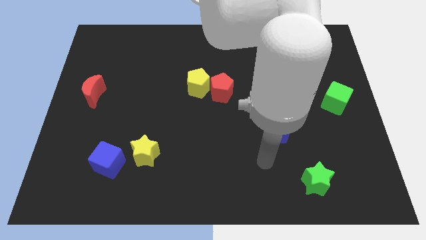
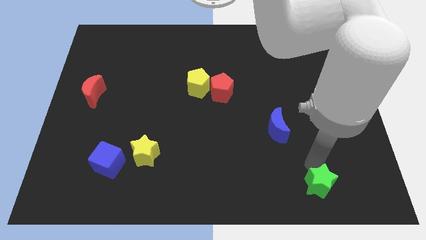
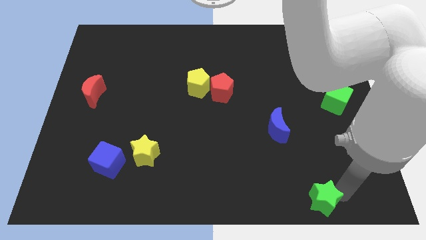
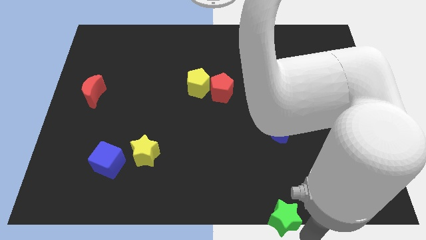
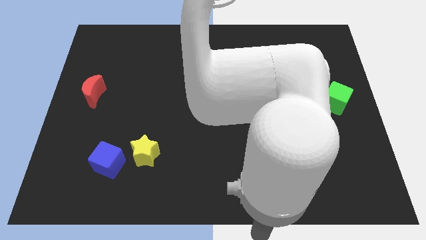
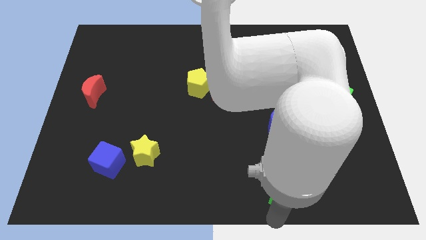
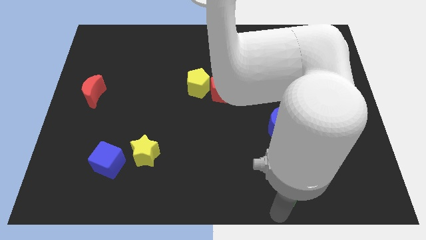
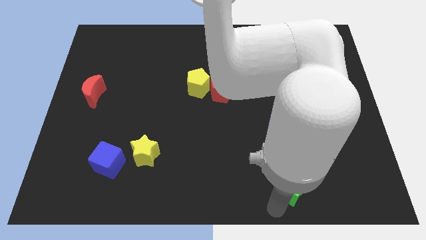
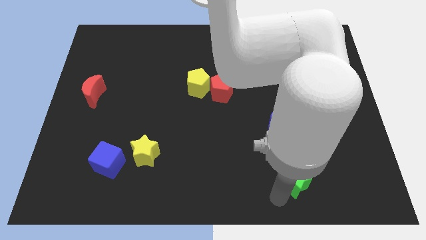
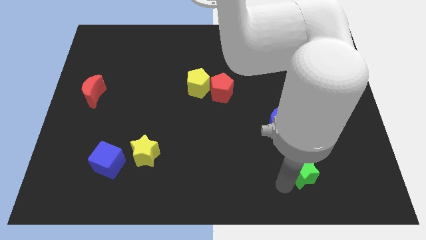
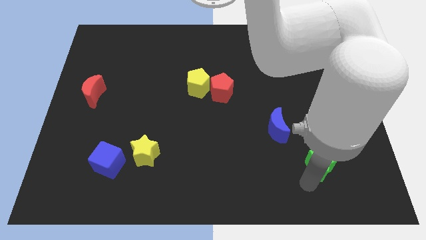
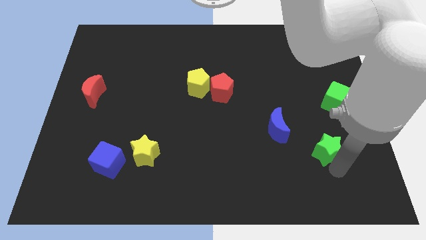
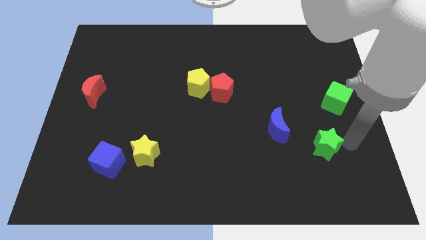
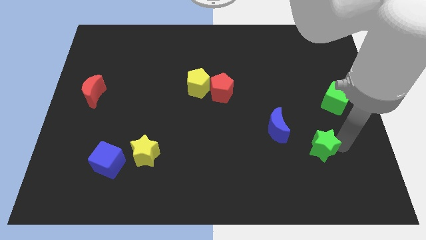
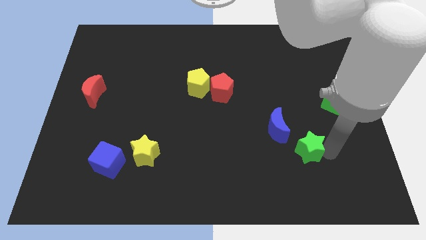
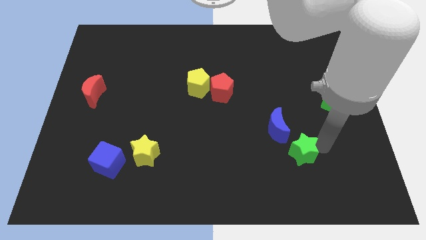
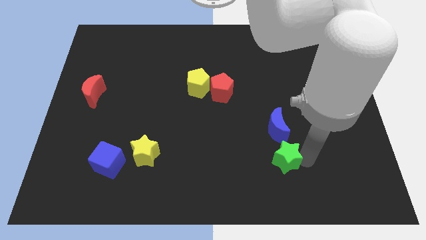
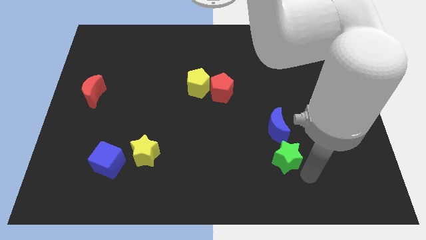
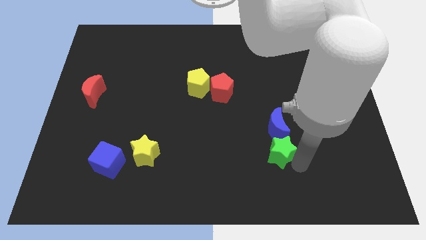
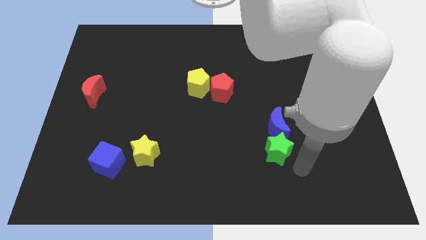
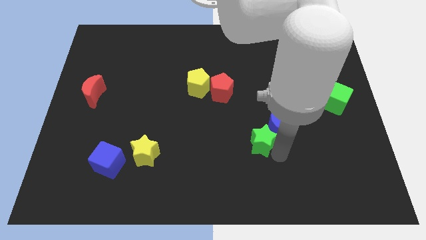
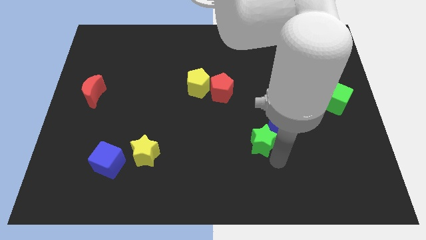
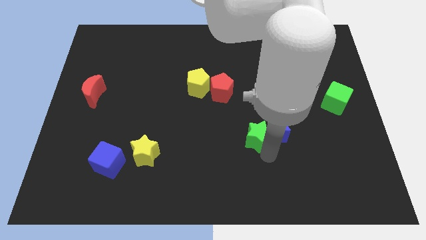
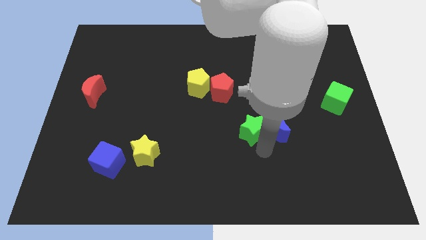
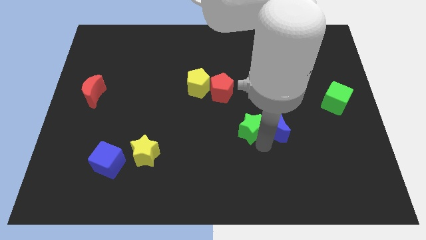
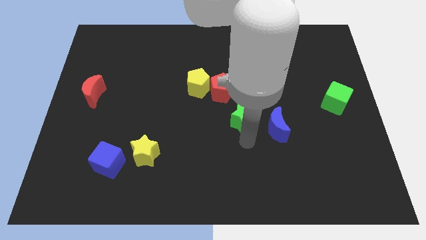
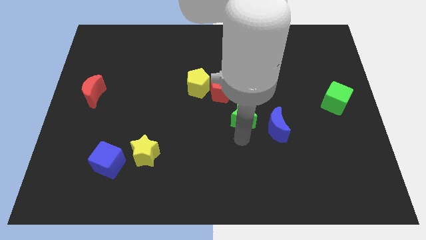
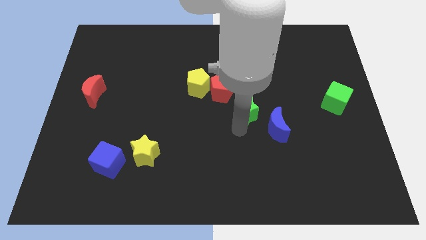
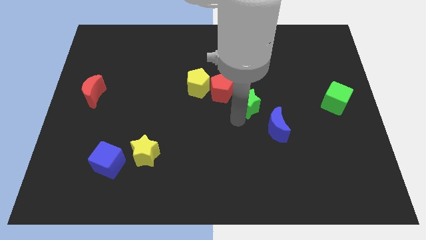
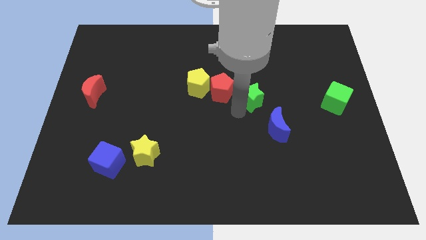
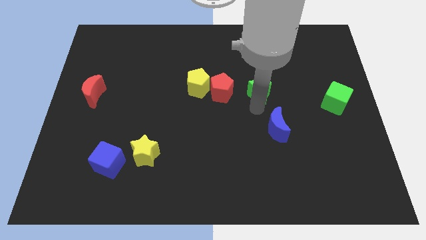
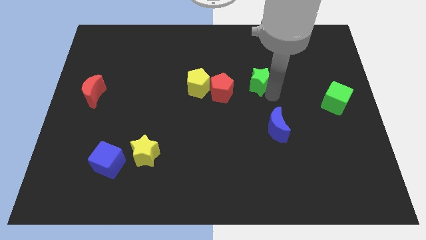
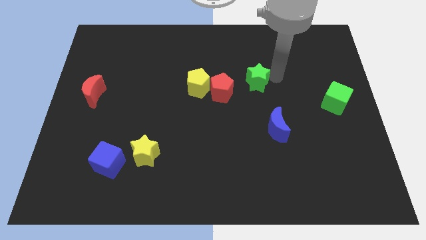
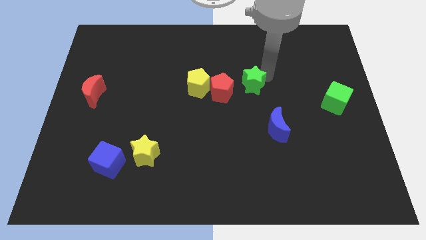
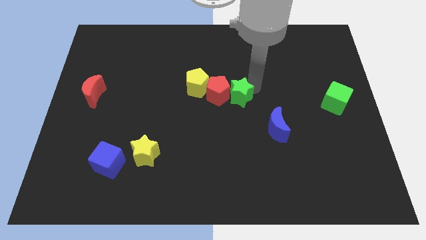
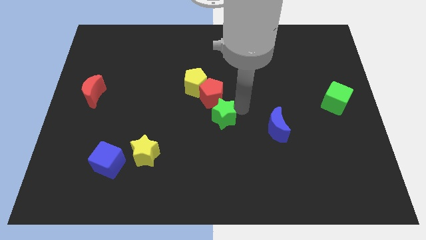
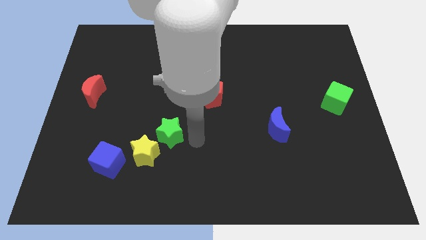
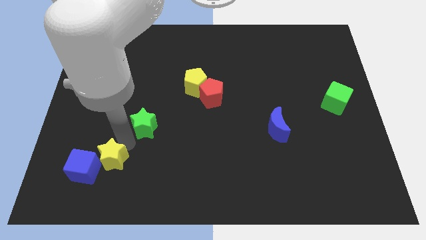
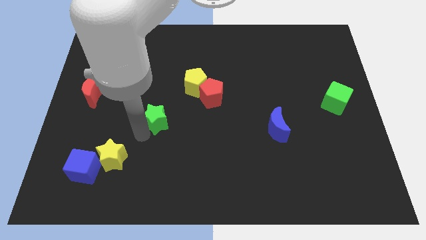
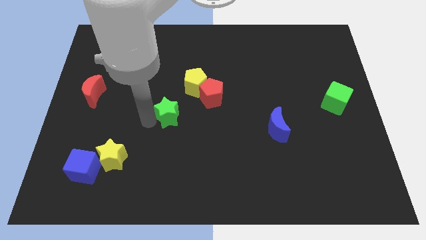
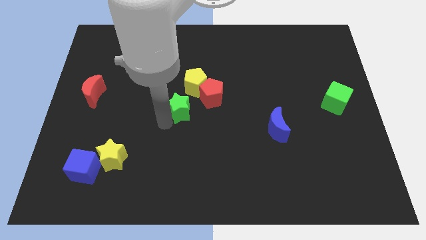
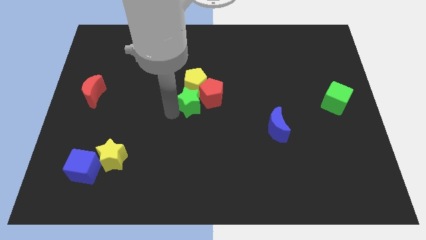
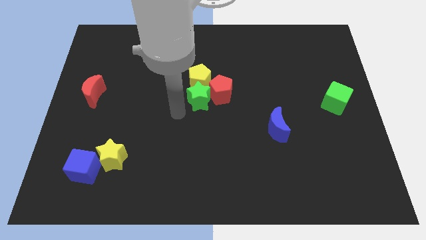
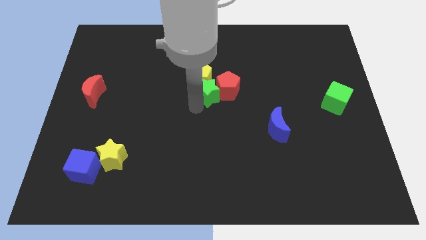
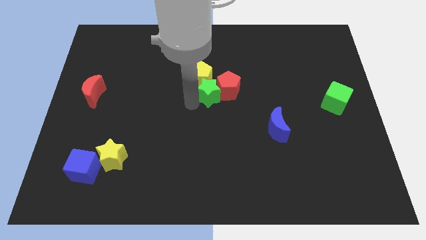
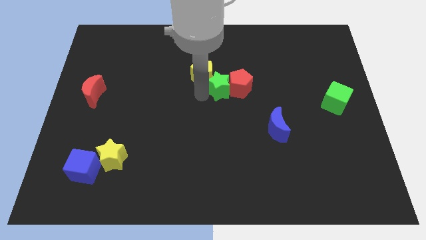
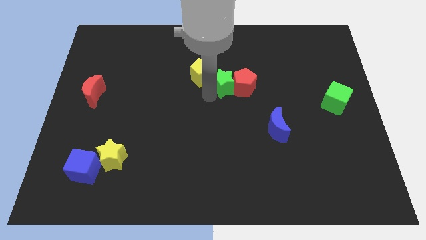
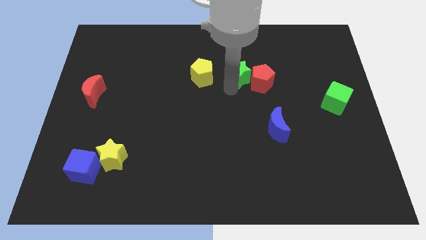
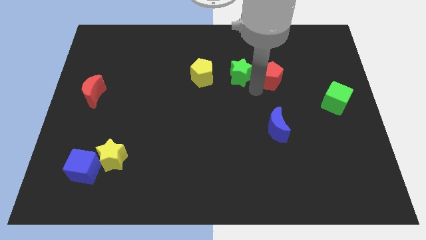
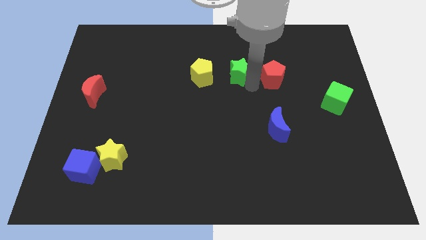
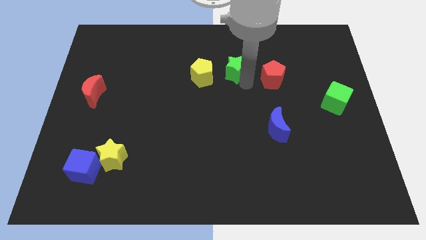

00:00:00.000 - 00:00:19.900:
push the green star diagonally up and to the right of the yellow pentagon

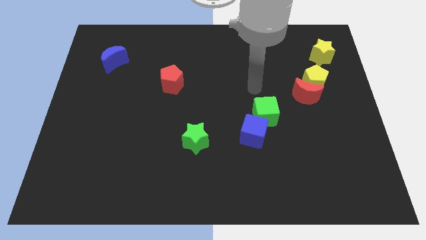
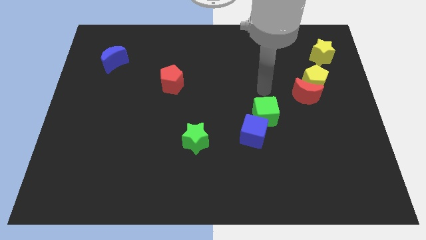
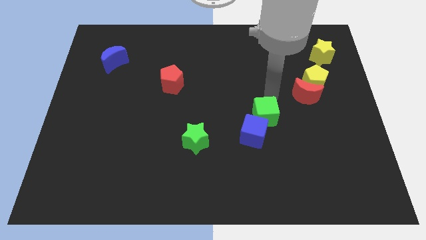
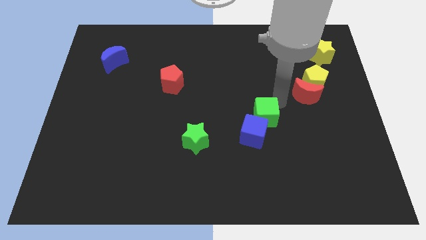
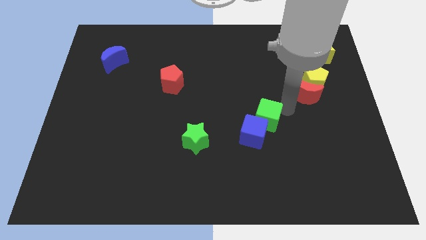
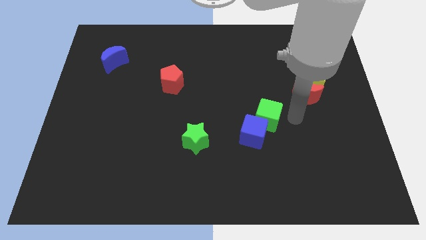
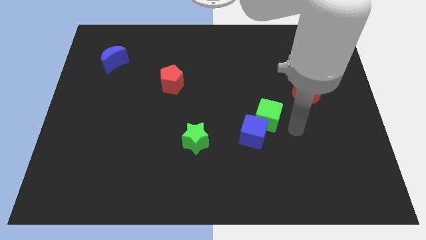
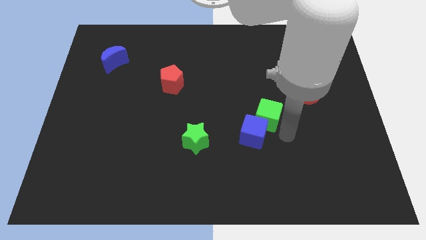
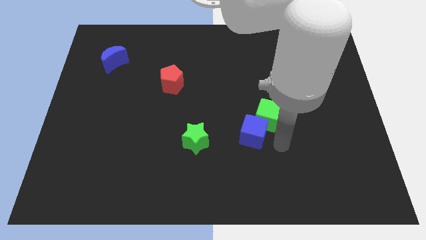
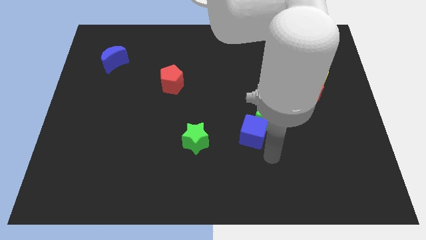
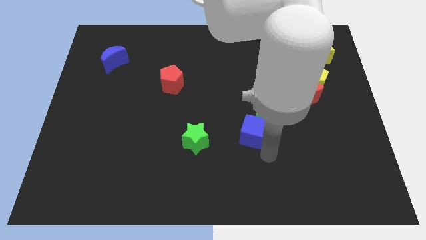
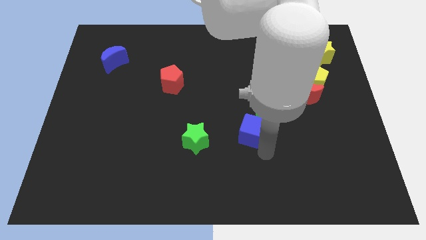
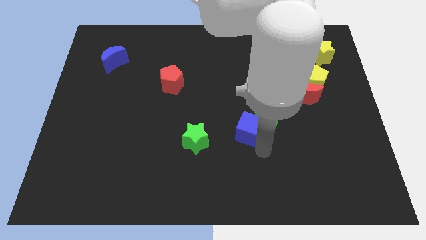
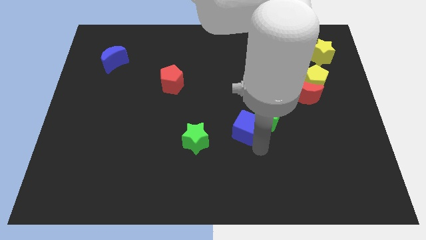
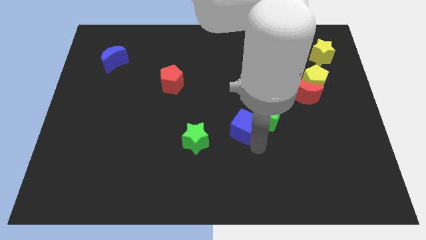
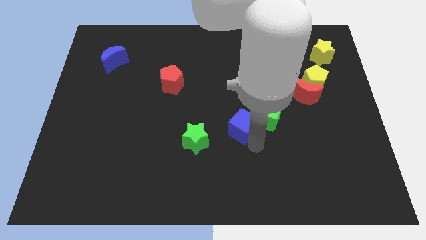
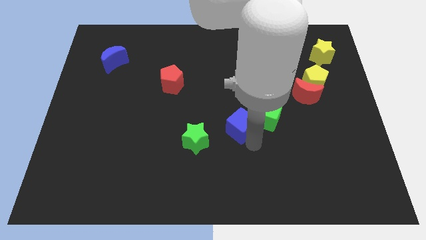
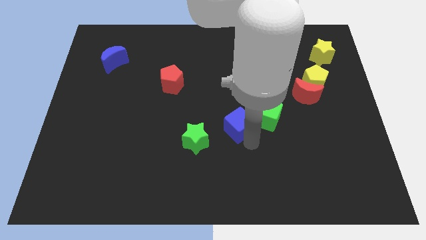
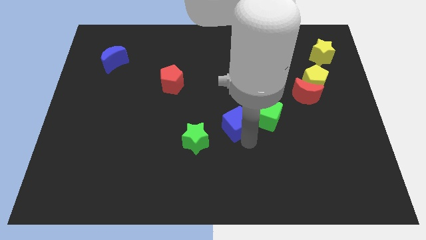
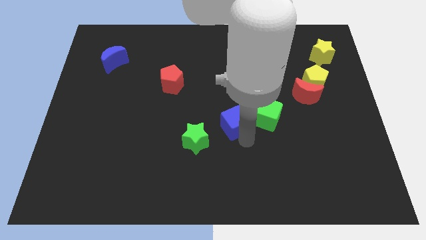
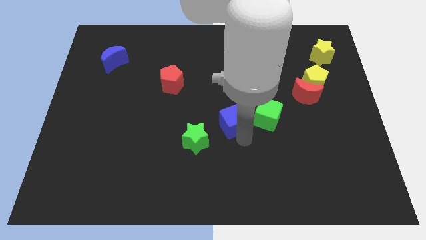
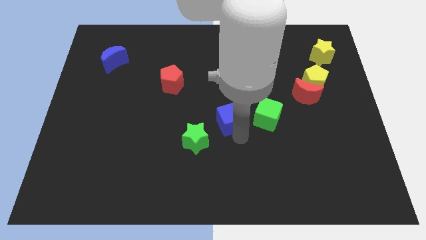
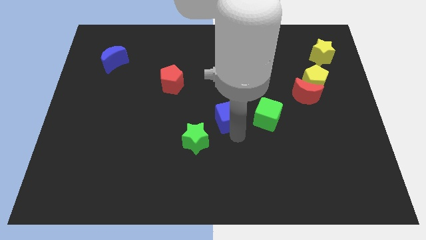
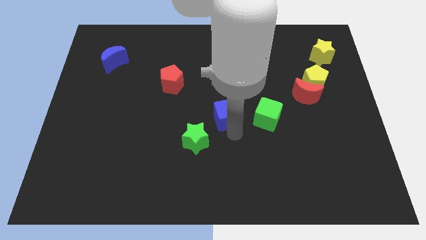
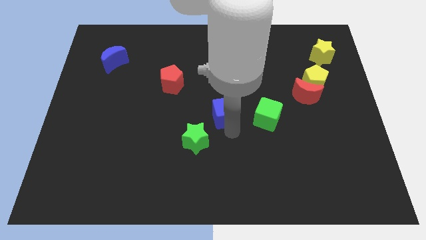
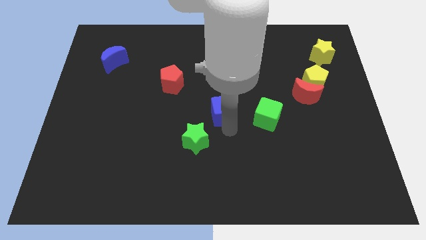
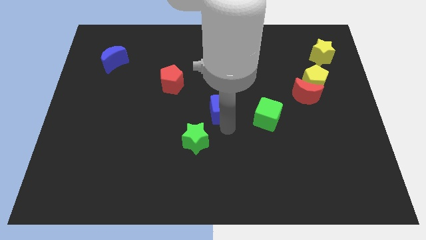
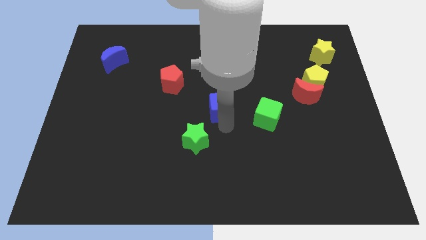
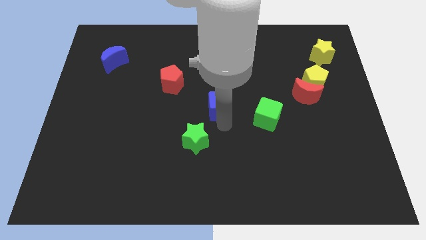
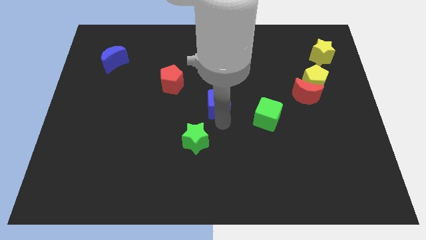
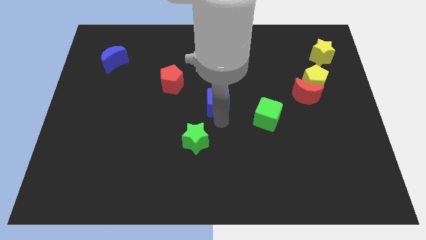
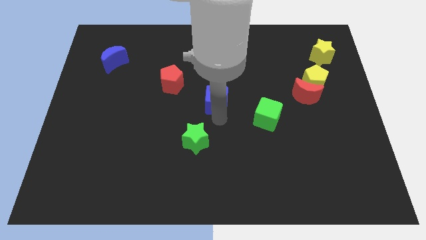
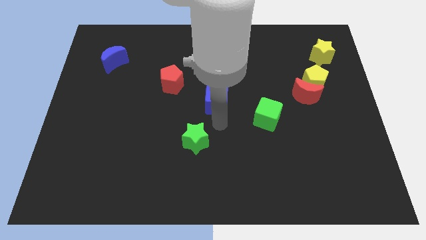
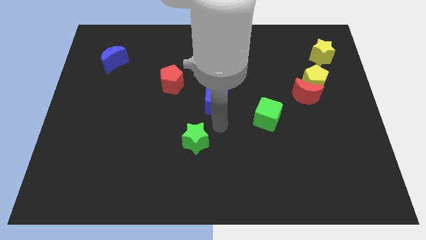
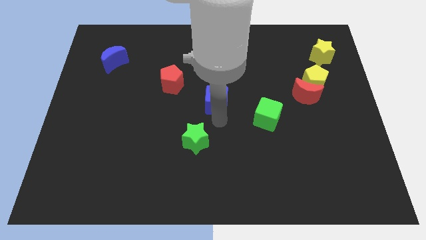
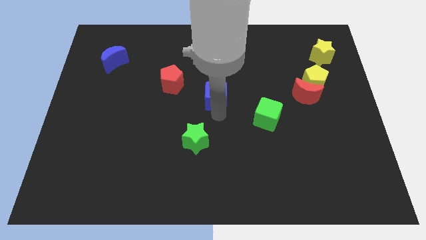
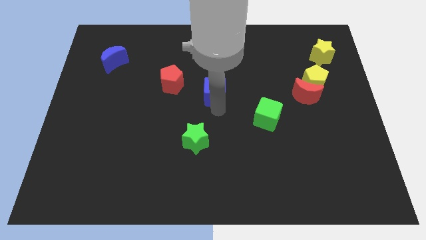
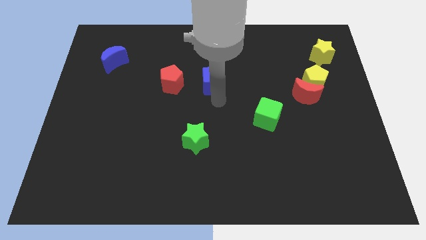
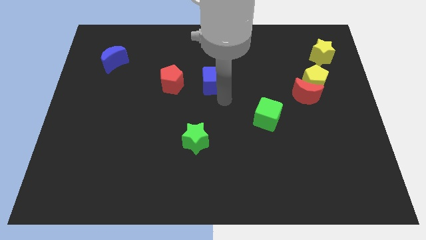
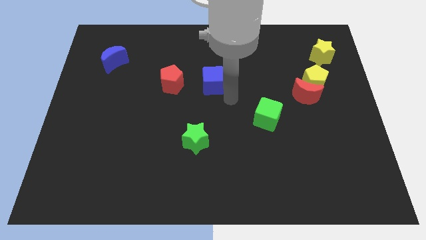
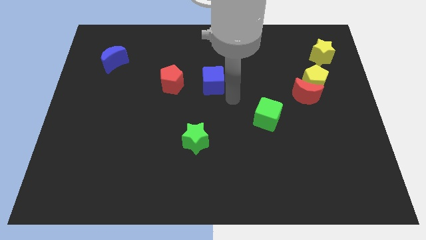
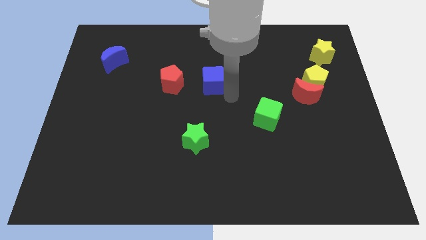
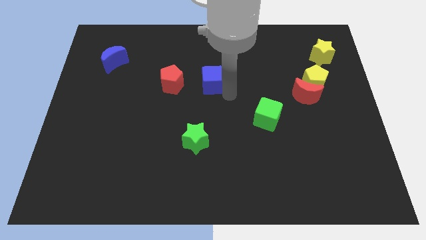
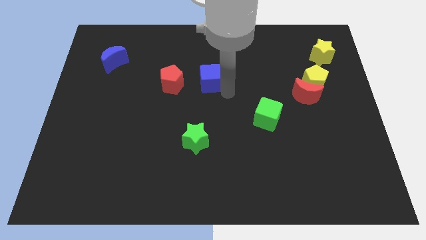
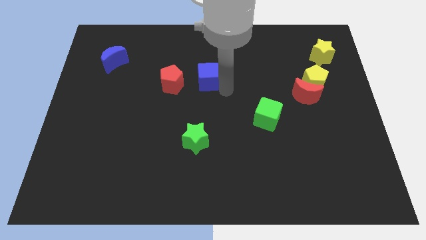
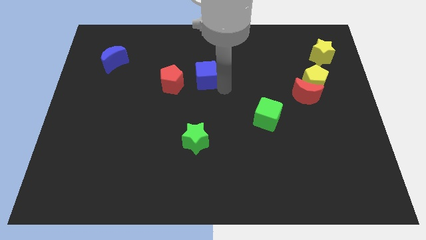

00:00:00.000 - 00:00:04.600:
slide the blue cube to the top right of the red pentagon
